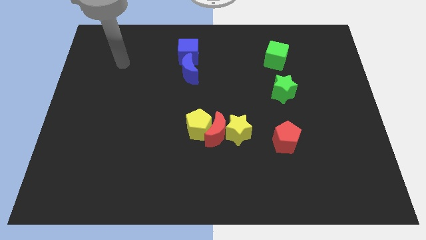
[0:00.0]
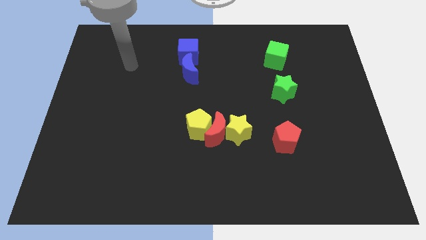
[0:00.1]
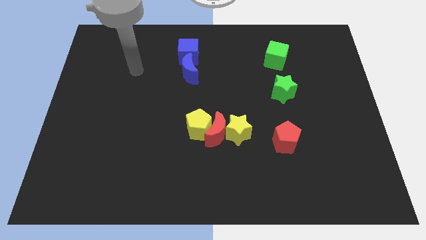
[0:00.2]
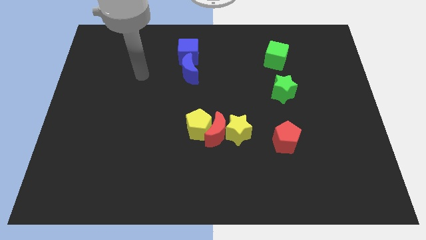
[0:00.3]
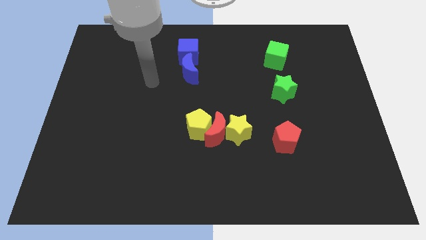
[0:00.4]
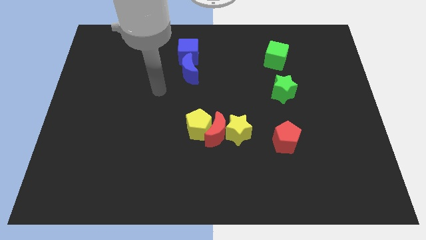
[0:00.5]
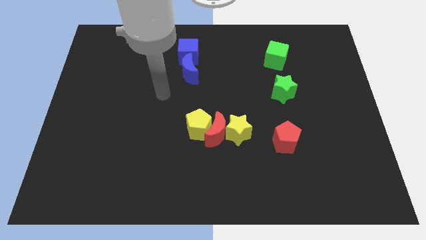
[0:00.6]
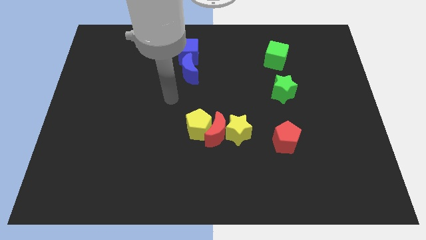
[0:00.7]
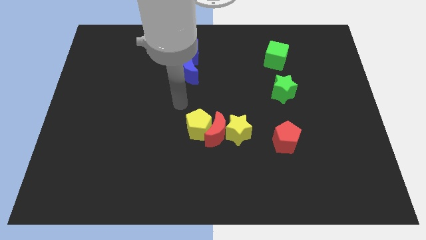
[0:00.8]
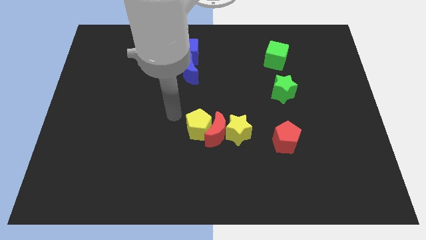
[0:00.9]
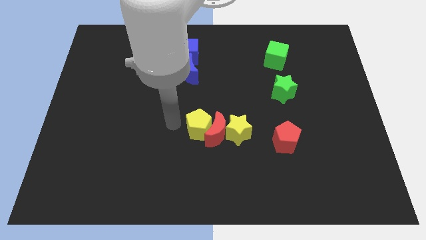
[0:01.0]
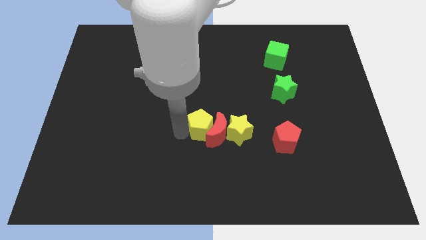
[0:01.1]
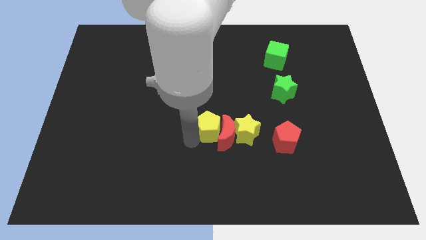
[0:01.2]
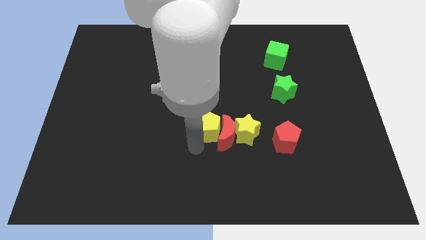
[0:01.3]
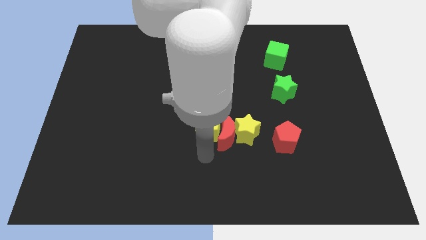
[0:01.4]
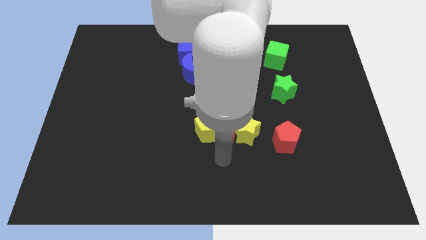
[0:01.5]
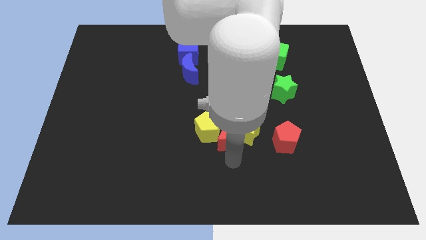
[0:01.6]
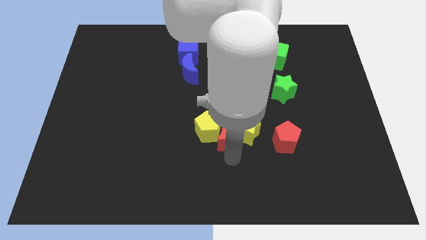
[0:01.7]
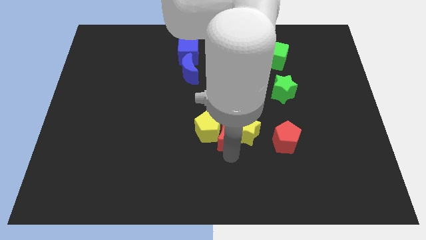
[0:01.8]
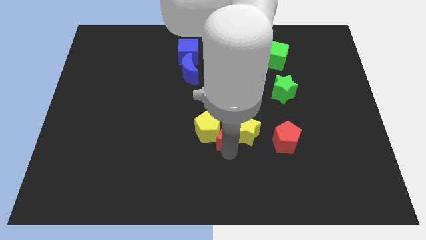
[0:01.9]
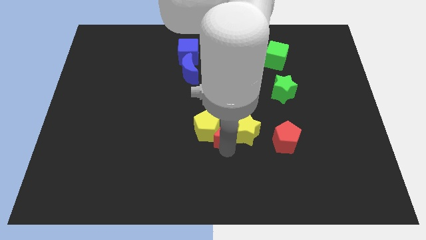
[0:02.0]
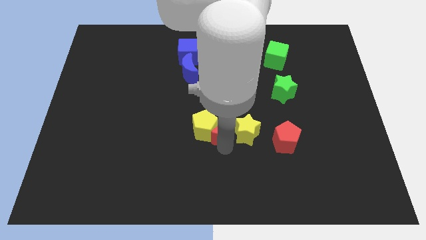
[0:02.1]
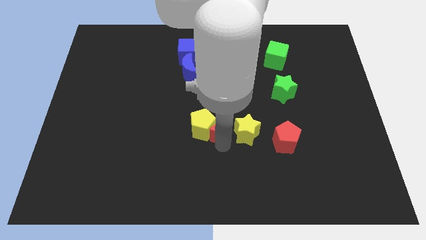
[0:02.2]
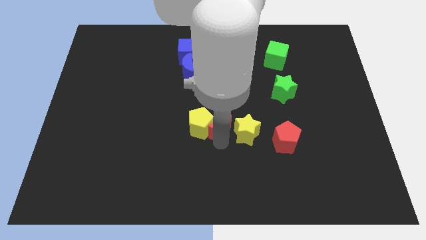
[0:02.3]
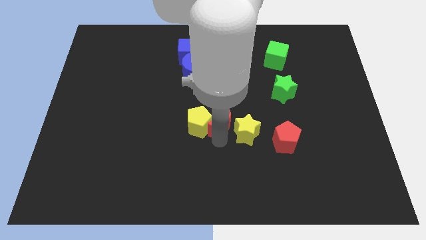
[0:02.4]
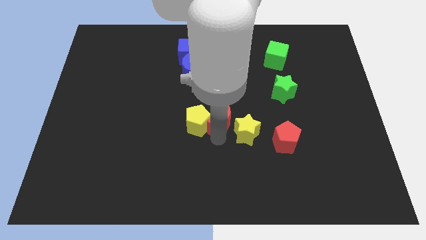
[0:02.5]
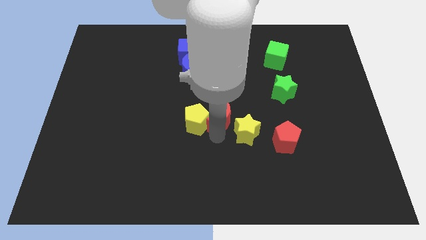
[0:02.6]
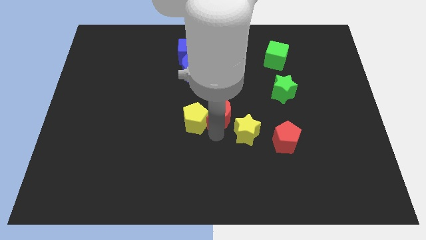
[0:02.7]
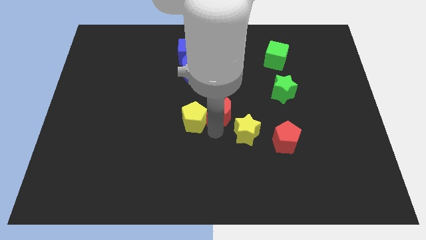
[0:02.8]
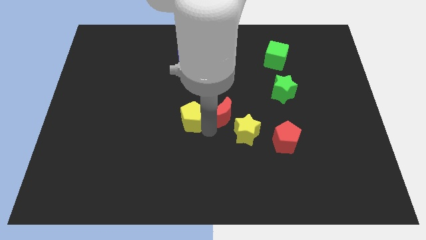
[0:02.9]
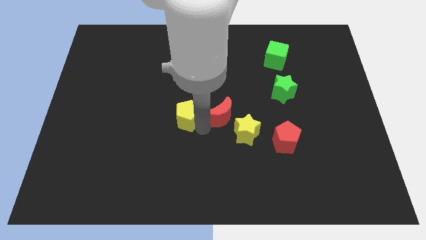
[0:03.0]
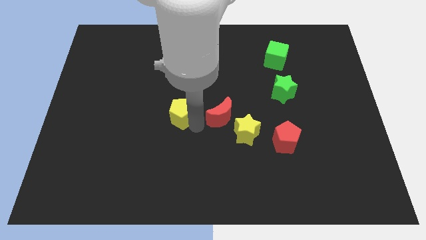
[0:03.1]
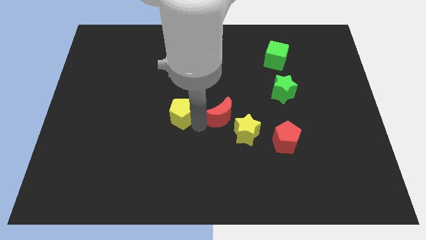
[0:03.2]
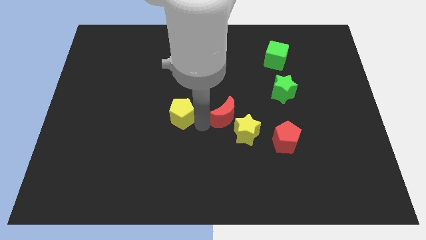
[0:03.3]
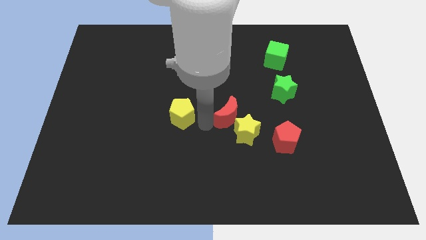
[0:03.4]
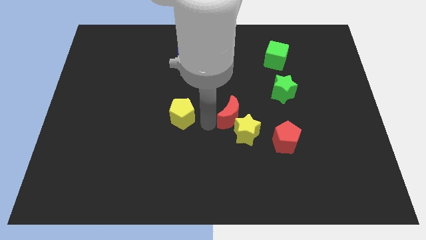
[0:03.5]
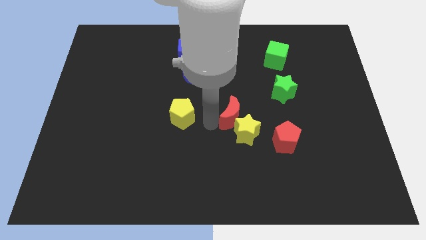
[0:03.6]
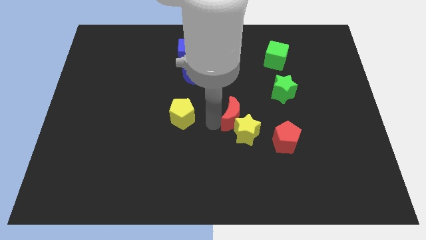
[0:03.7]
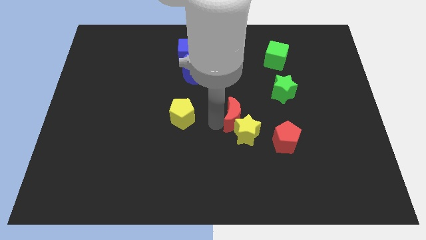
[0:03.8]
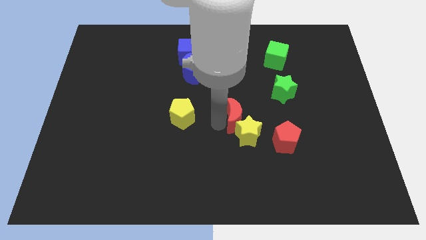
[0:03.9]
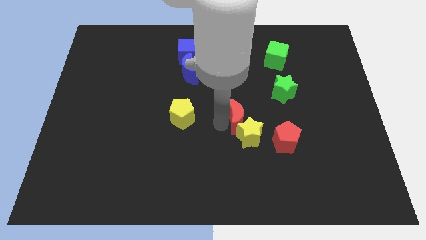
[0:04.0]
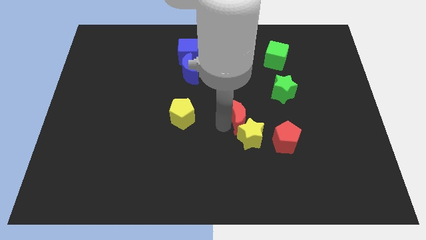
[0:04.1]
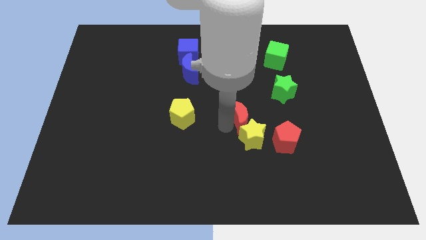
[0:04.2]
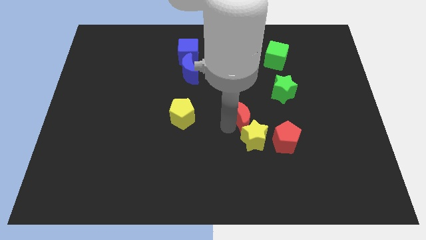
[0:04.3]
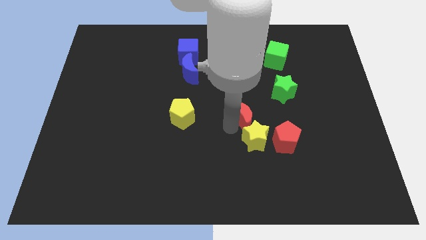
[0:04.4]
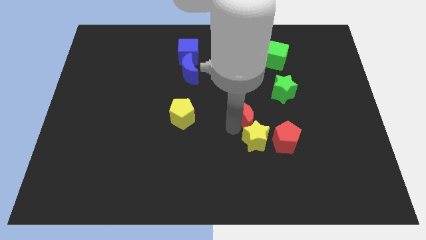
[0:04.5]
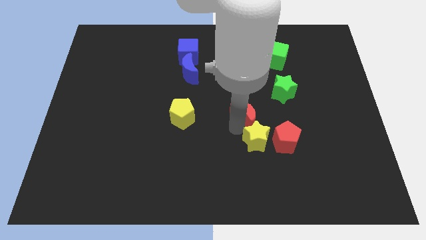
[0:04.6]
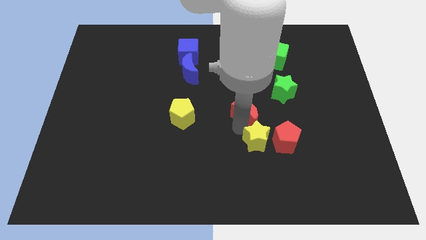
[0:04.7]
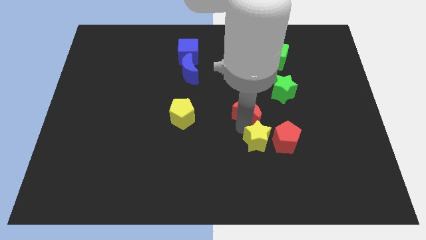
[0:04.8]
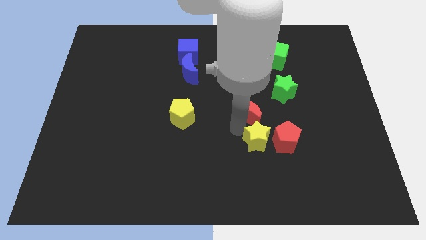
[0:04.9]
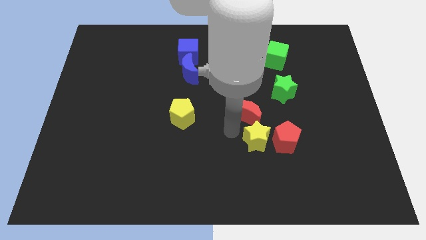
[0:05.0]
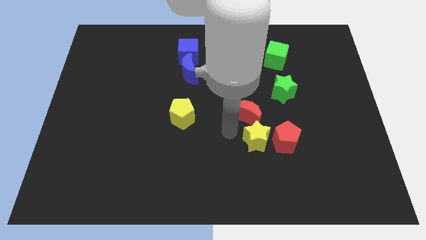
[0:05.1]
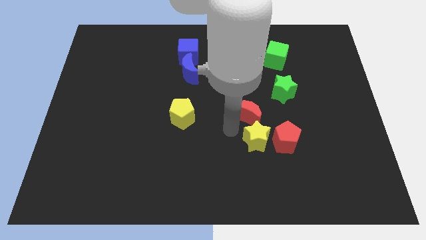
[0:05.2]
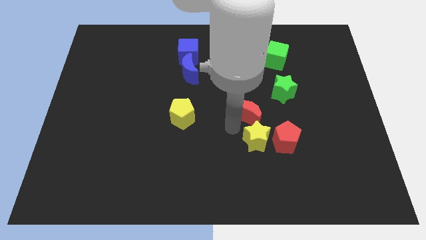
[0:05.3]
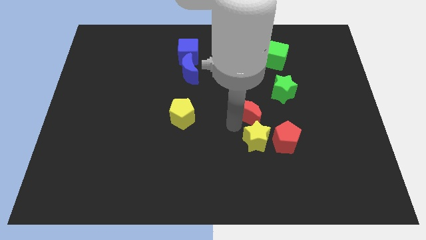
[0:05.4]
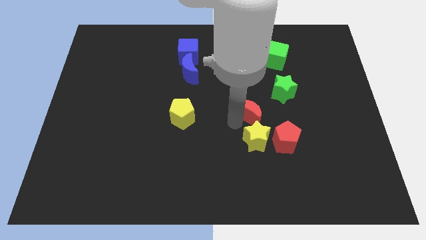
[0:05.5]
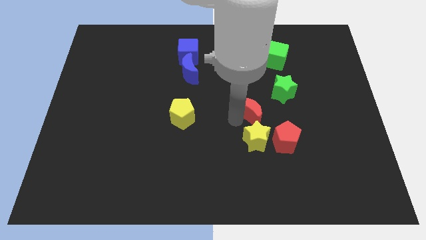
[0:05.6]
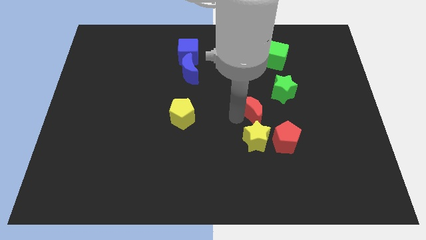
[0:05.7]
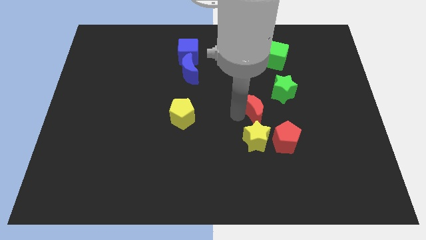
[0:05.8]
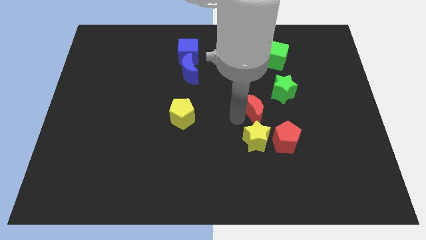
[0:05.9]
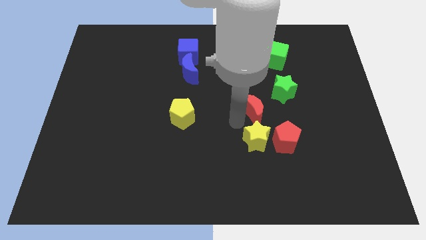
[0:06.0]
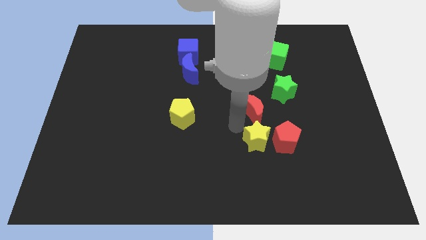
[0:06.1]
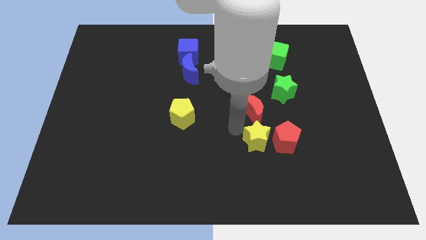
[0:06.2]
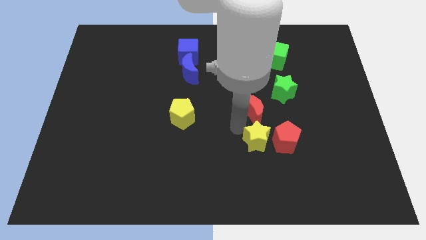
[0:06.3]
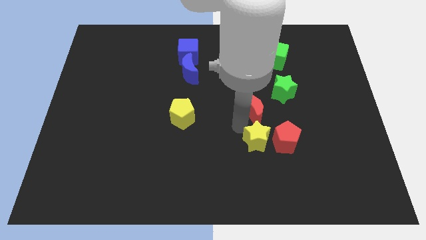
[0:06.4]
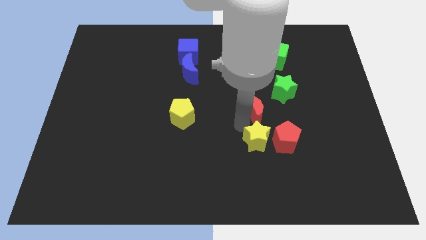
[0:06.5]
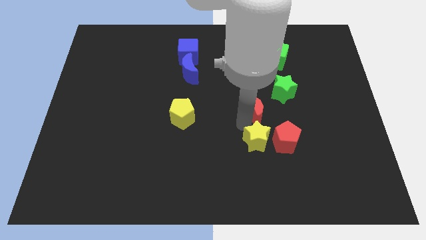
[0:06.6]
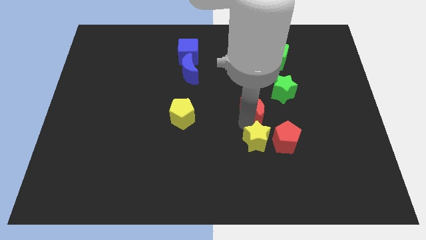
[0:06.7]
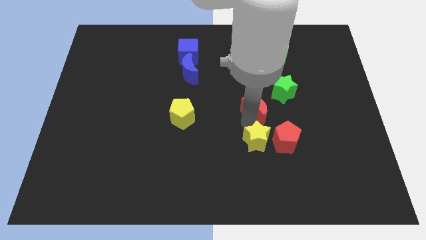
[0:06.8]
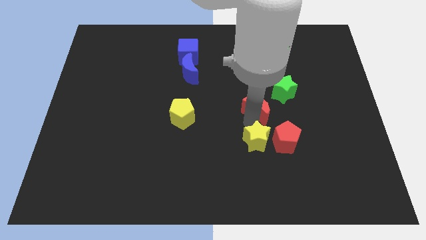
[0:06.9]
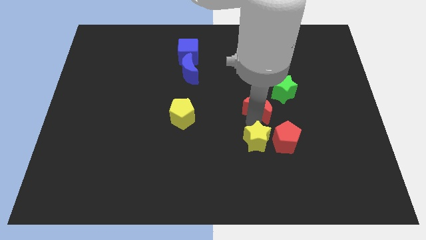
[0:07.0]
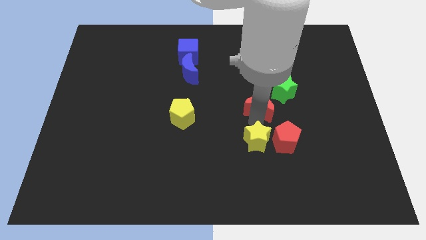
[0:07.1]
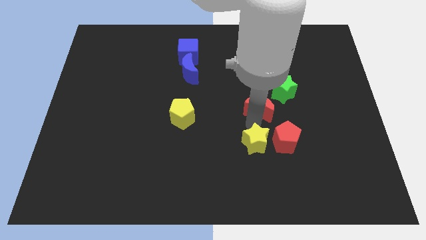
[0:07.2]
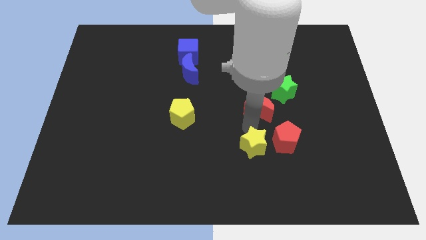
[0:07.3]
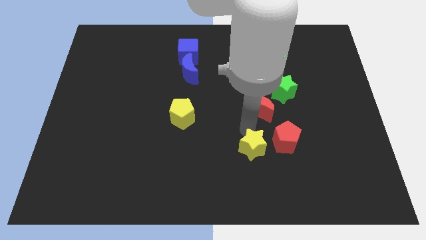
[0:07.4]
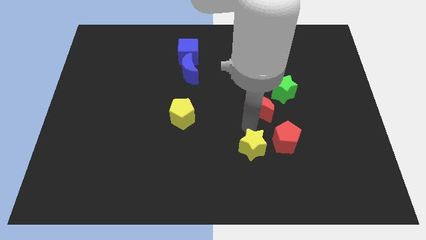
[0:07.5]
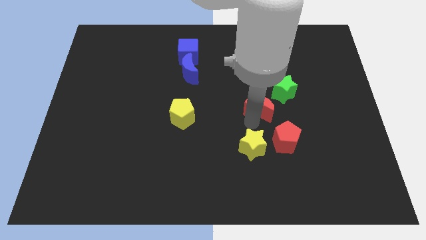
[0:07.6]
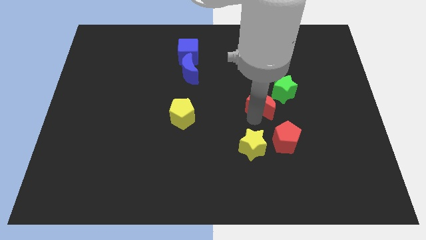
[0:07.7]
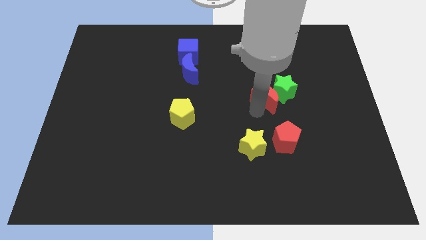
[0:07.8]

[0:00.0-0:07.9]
push the red moon to the green star
